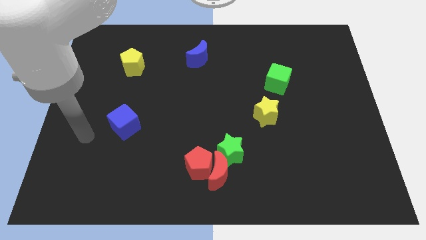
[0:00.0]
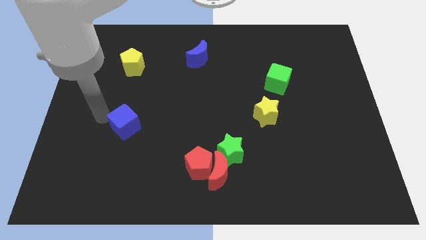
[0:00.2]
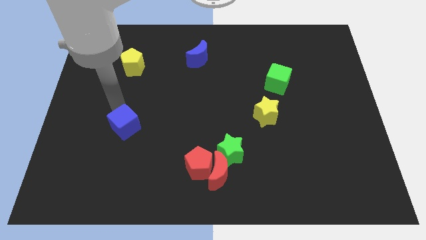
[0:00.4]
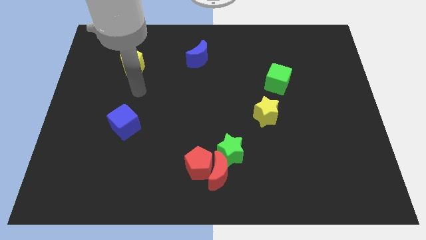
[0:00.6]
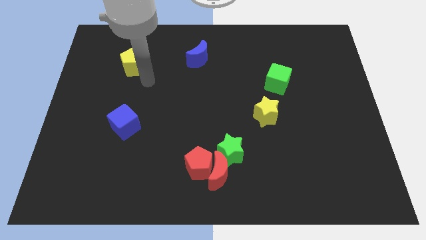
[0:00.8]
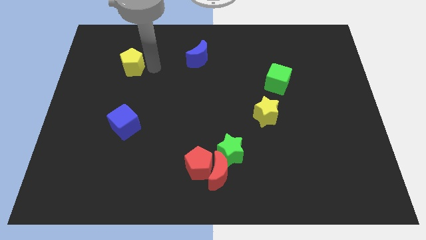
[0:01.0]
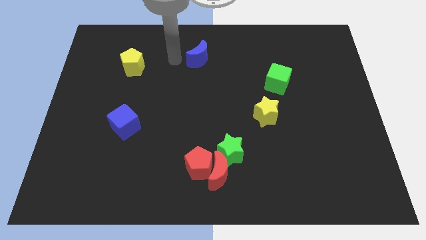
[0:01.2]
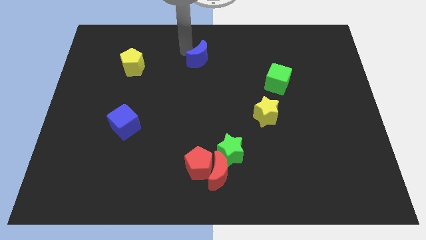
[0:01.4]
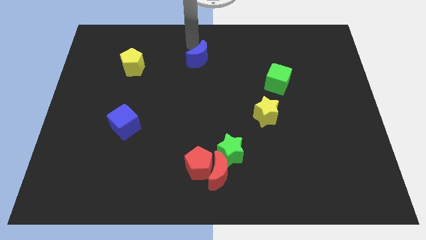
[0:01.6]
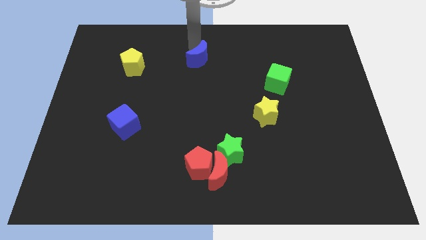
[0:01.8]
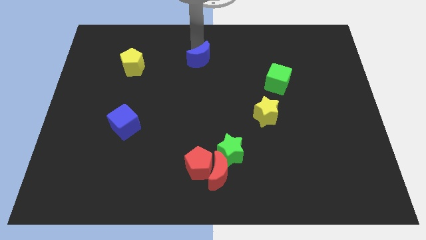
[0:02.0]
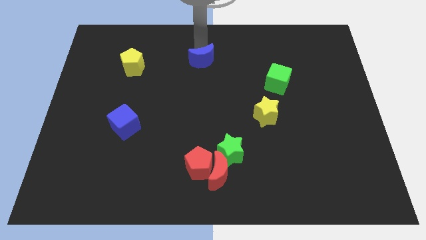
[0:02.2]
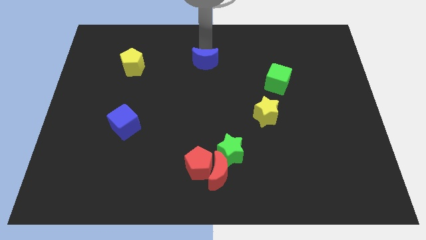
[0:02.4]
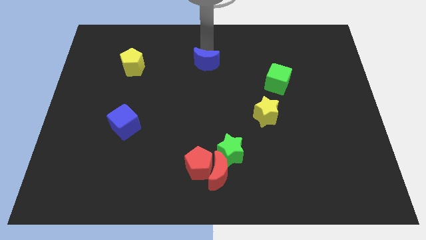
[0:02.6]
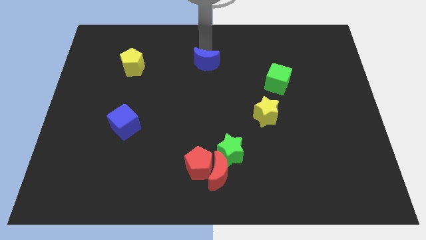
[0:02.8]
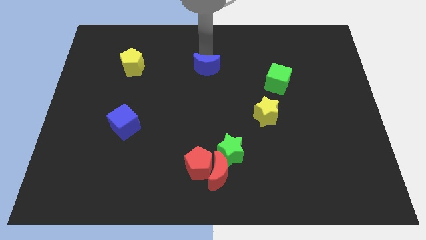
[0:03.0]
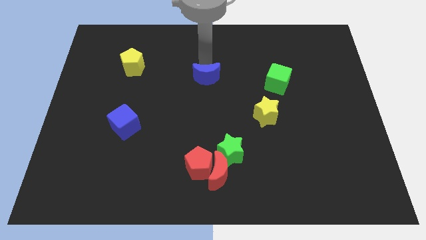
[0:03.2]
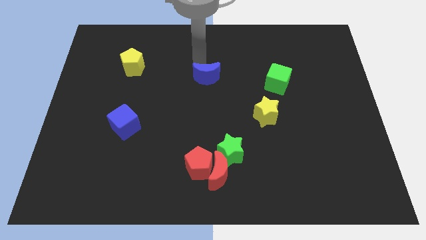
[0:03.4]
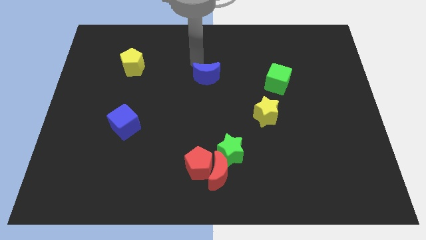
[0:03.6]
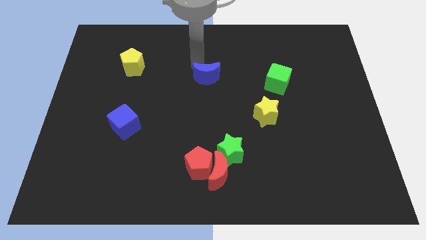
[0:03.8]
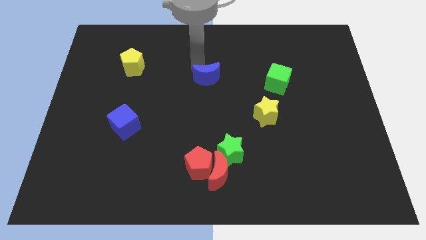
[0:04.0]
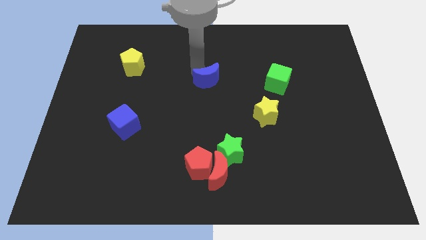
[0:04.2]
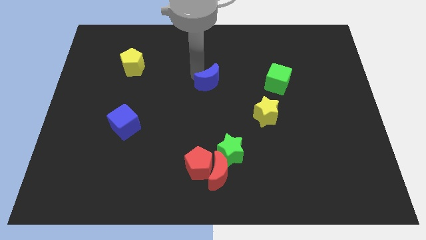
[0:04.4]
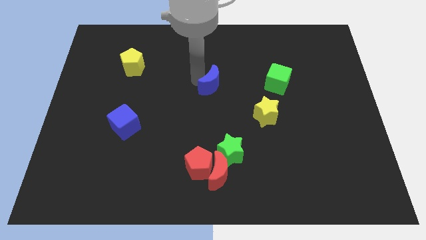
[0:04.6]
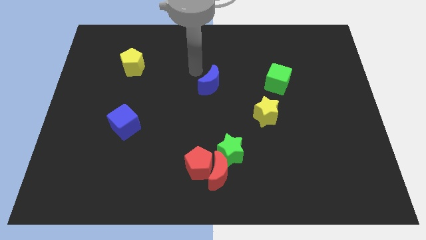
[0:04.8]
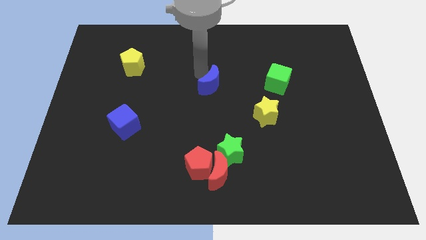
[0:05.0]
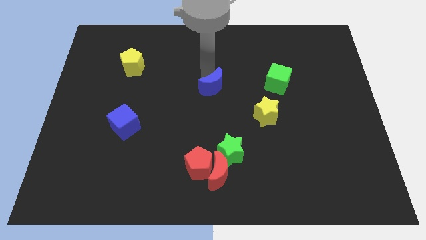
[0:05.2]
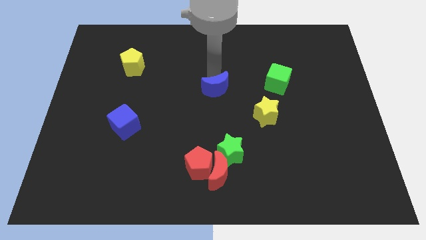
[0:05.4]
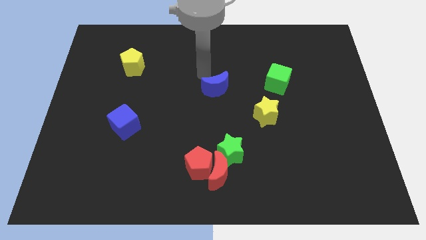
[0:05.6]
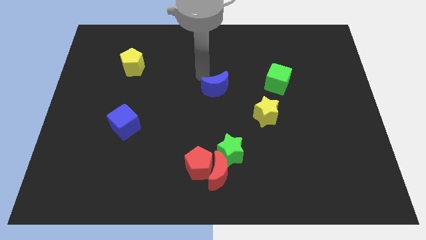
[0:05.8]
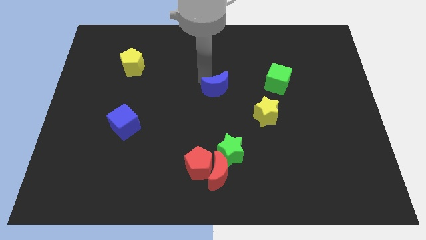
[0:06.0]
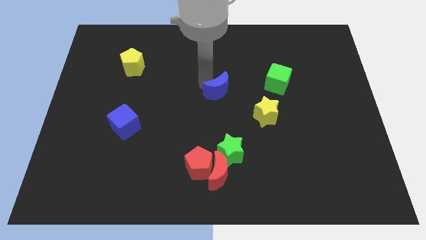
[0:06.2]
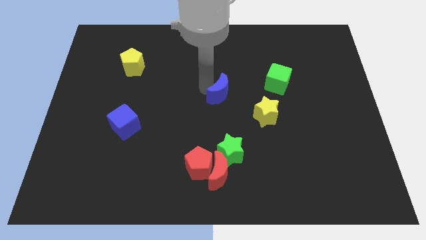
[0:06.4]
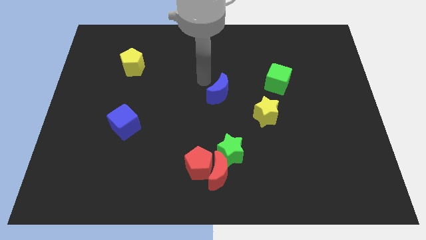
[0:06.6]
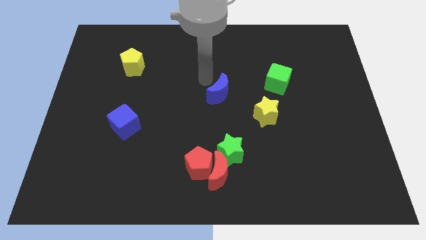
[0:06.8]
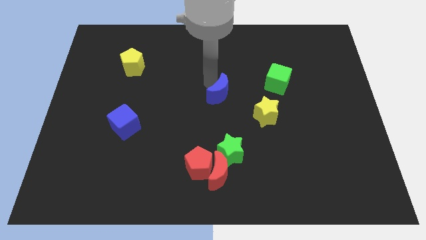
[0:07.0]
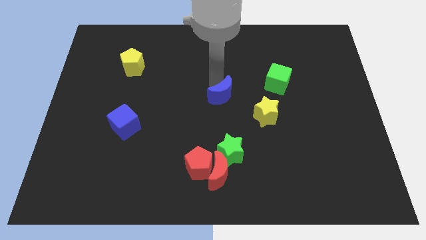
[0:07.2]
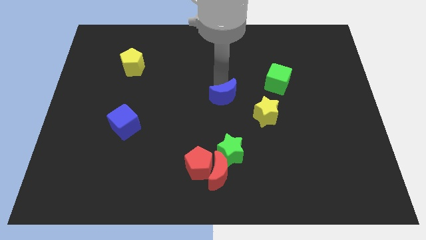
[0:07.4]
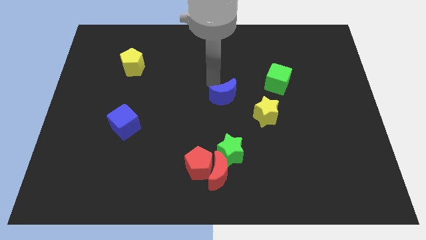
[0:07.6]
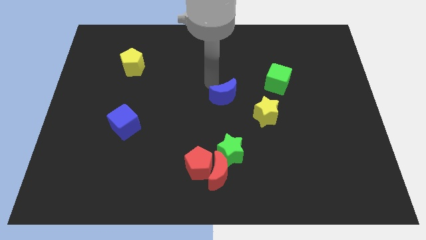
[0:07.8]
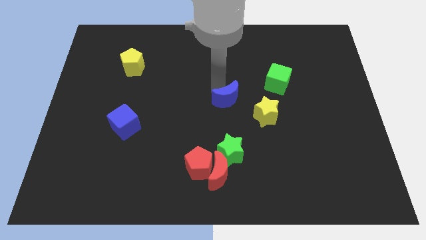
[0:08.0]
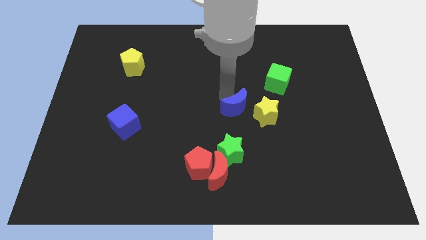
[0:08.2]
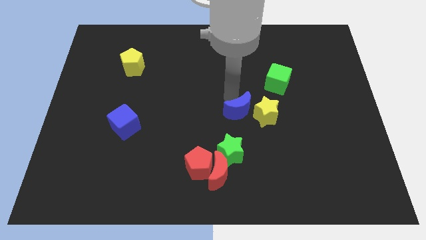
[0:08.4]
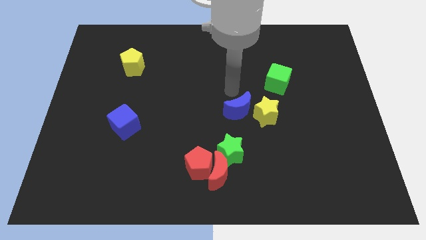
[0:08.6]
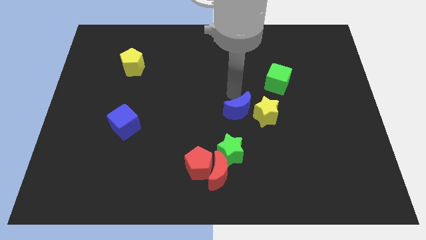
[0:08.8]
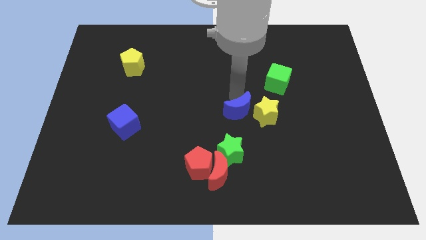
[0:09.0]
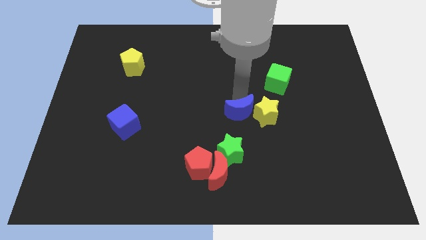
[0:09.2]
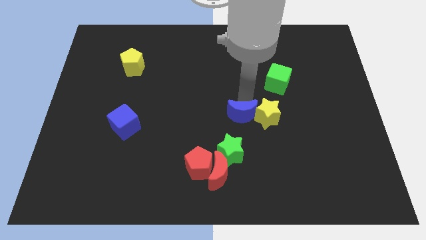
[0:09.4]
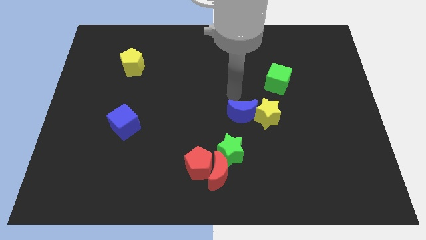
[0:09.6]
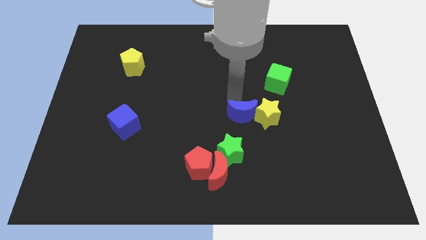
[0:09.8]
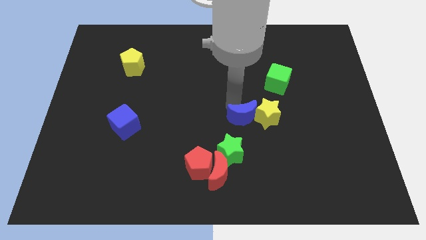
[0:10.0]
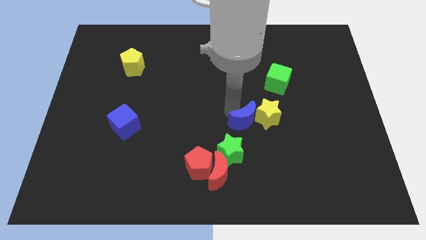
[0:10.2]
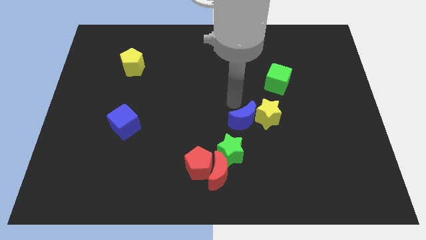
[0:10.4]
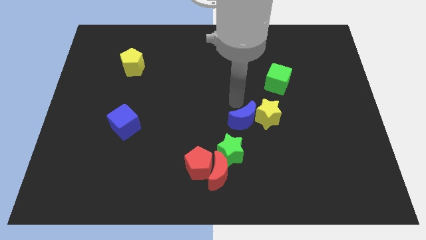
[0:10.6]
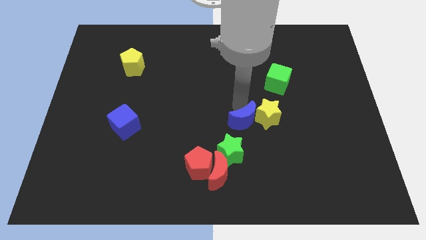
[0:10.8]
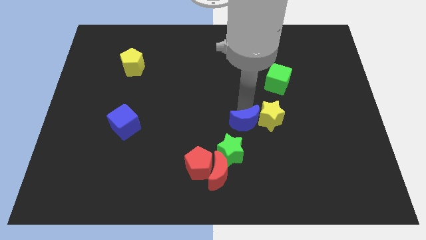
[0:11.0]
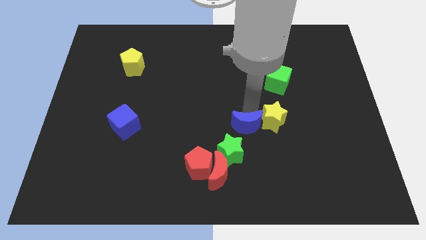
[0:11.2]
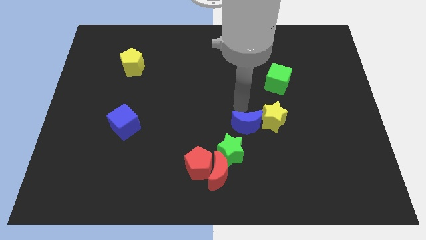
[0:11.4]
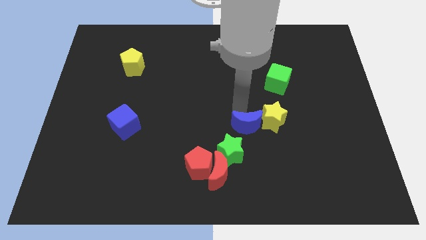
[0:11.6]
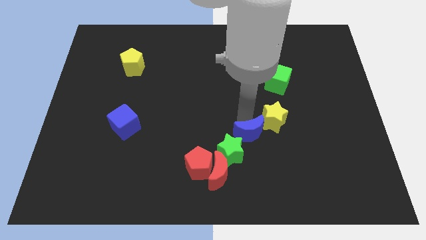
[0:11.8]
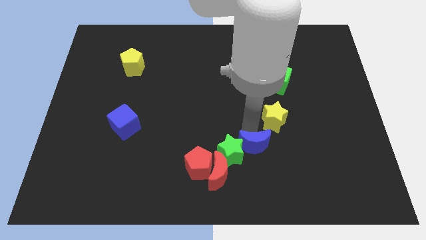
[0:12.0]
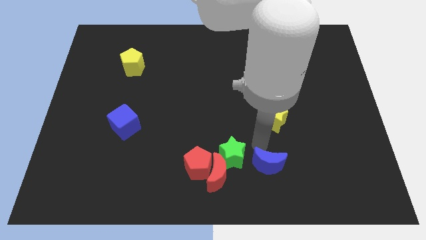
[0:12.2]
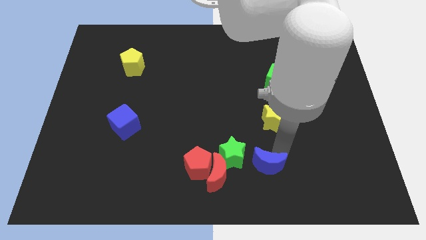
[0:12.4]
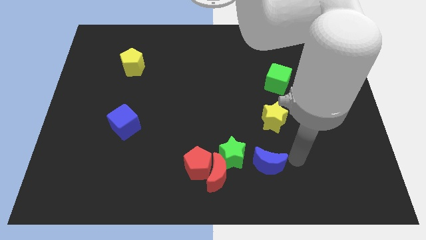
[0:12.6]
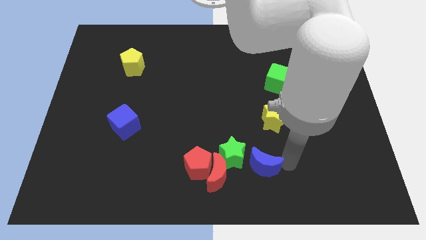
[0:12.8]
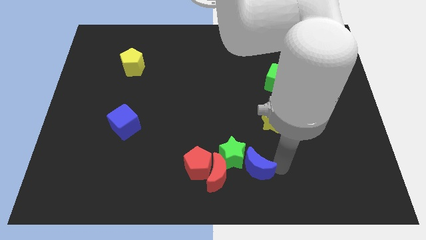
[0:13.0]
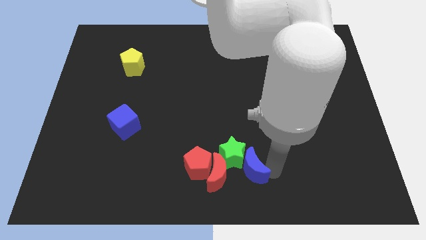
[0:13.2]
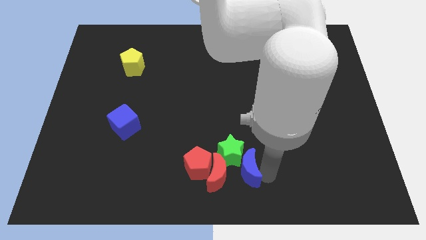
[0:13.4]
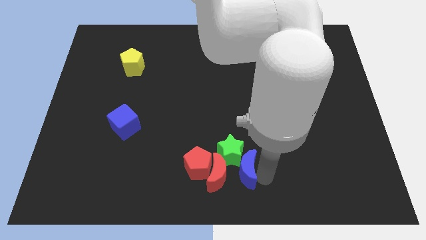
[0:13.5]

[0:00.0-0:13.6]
move the blue moon close to the red moon
